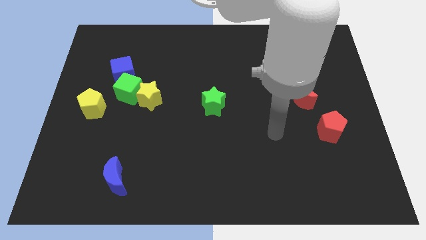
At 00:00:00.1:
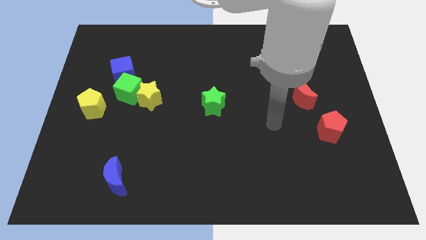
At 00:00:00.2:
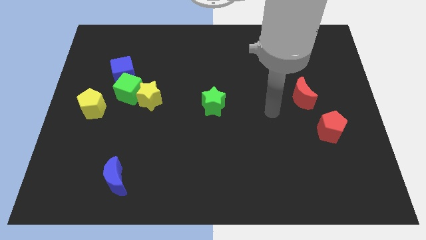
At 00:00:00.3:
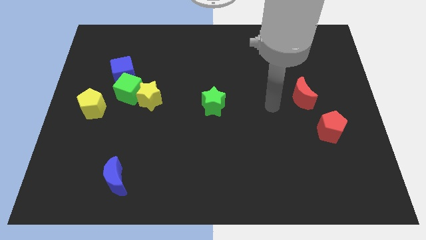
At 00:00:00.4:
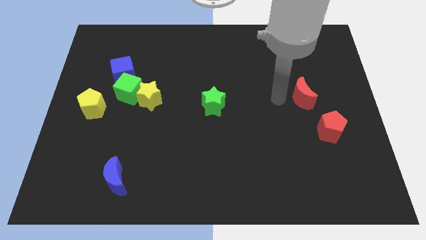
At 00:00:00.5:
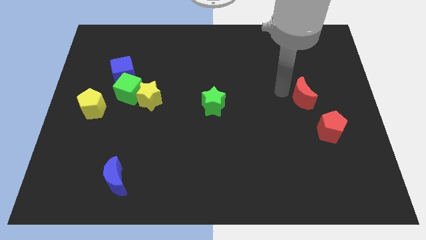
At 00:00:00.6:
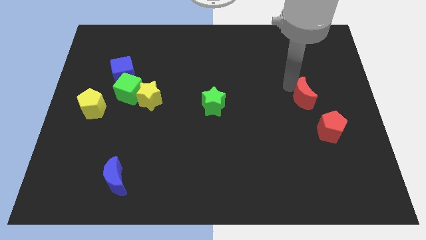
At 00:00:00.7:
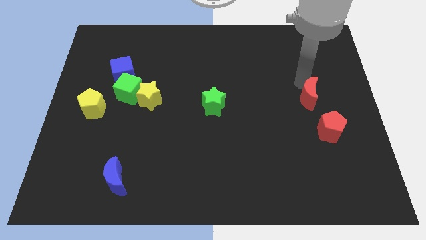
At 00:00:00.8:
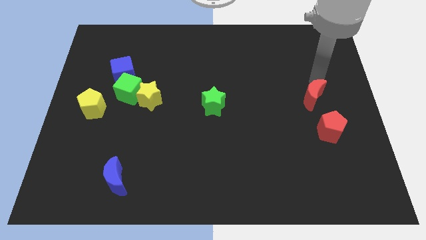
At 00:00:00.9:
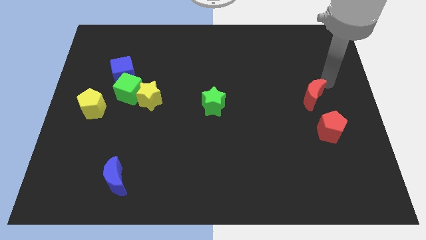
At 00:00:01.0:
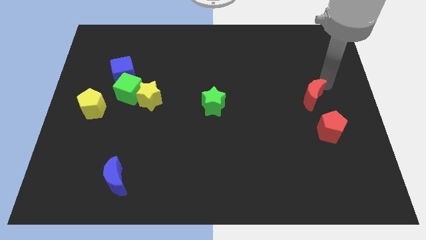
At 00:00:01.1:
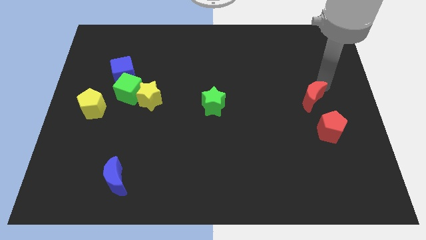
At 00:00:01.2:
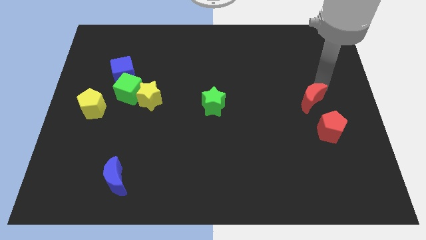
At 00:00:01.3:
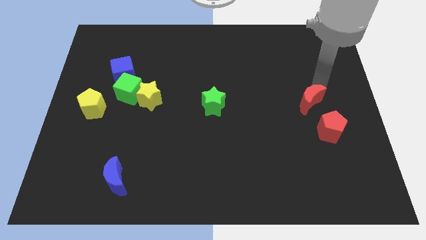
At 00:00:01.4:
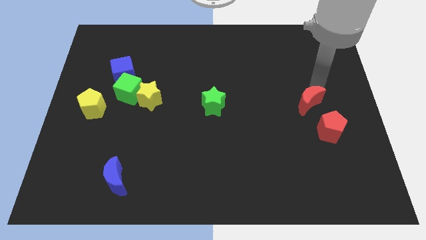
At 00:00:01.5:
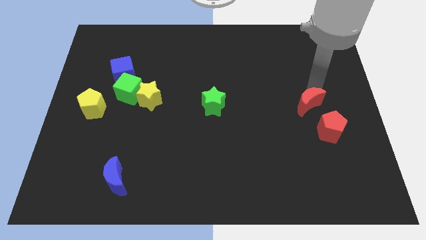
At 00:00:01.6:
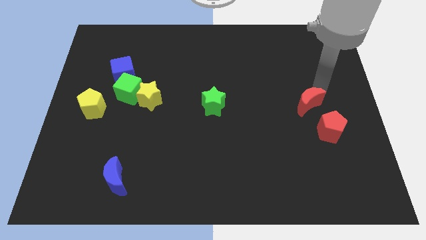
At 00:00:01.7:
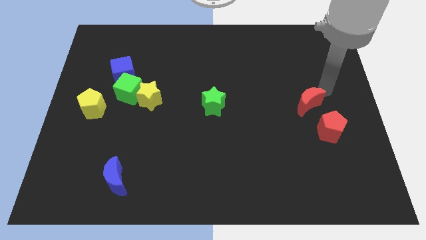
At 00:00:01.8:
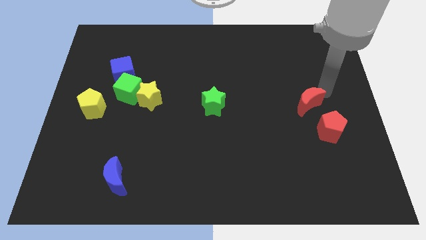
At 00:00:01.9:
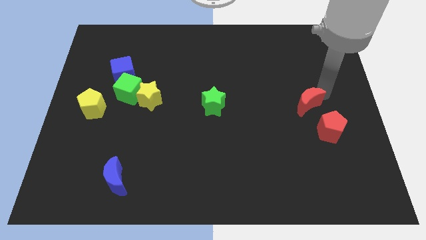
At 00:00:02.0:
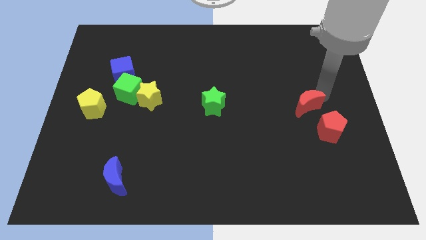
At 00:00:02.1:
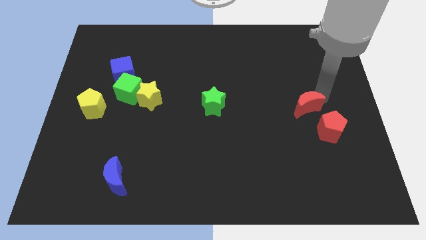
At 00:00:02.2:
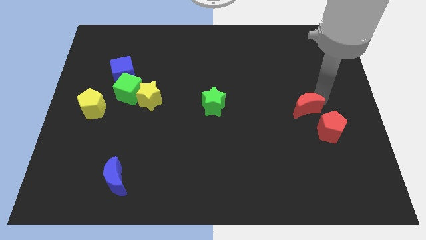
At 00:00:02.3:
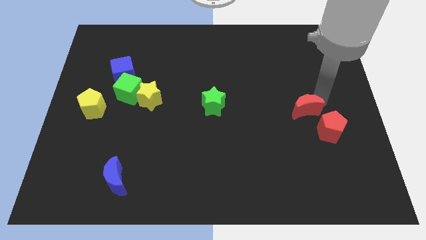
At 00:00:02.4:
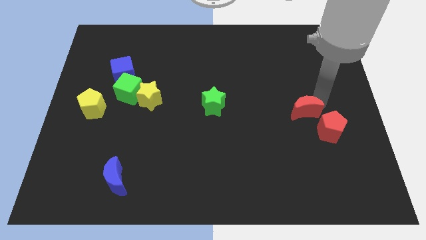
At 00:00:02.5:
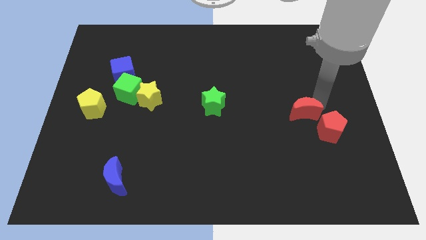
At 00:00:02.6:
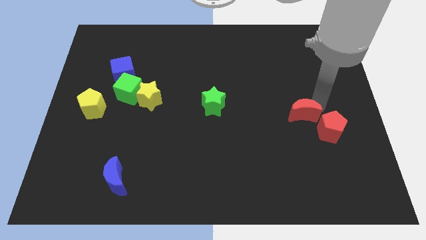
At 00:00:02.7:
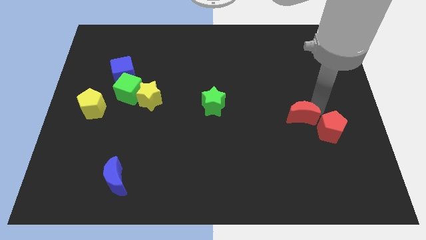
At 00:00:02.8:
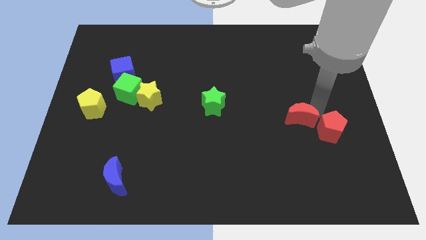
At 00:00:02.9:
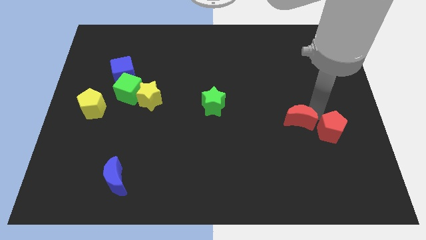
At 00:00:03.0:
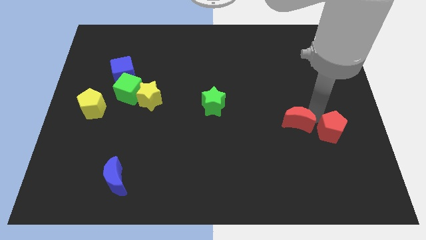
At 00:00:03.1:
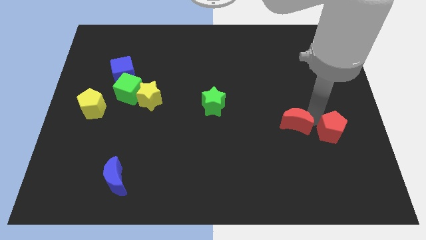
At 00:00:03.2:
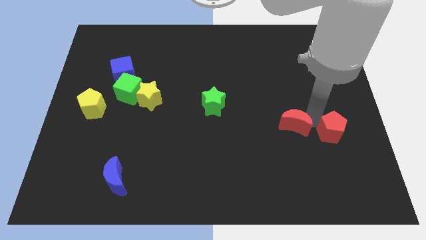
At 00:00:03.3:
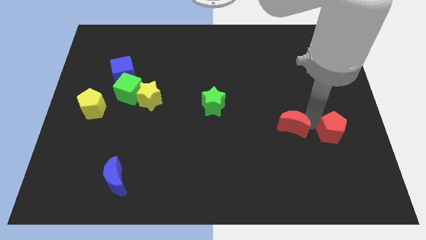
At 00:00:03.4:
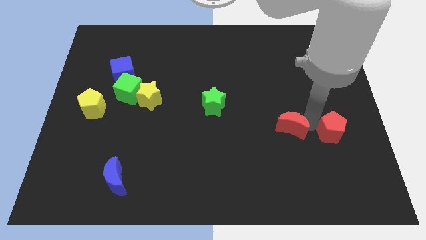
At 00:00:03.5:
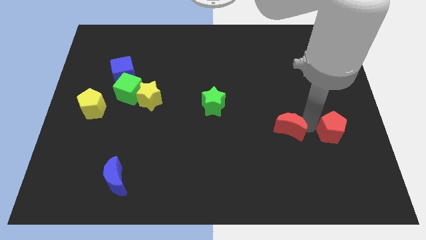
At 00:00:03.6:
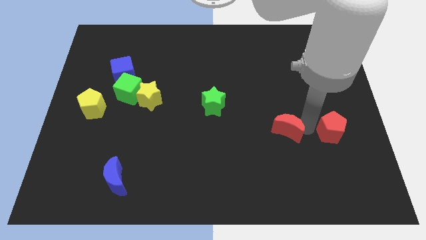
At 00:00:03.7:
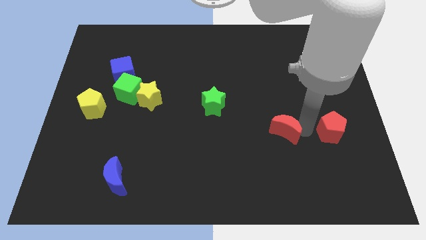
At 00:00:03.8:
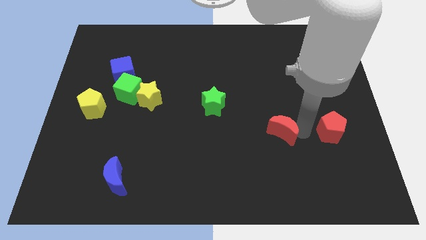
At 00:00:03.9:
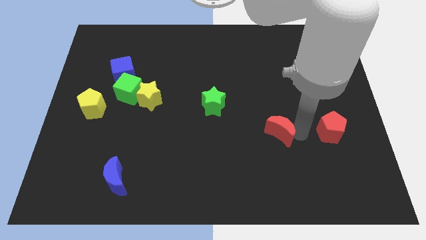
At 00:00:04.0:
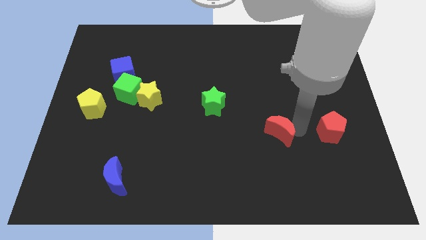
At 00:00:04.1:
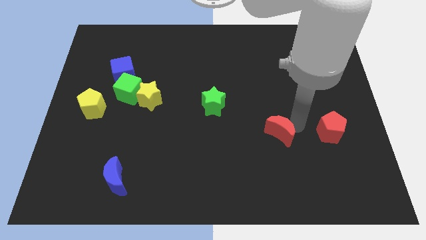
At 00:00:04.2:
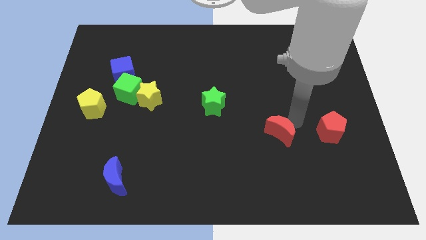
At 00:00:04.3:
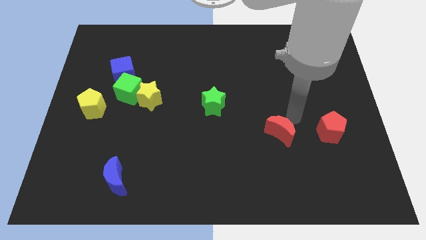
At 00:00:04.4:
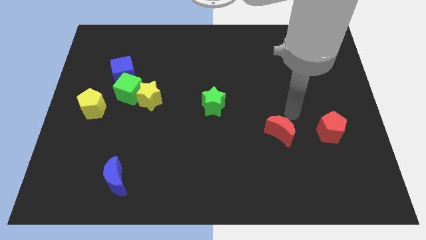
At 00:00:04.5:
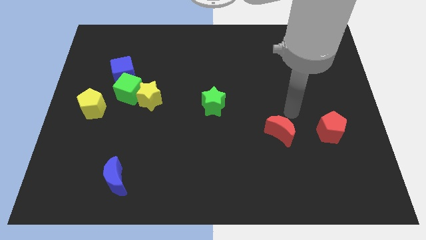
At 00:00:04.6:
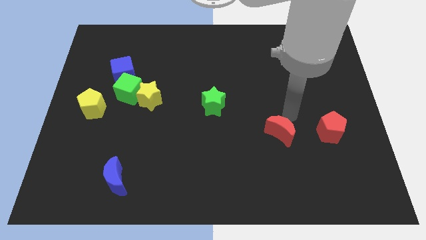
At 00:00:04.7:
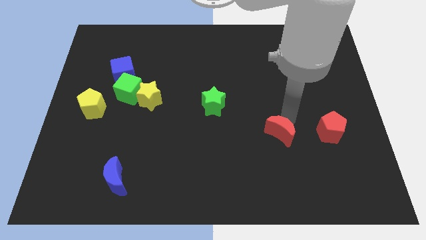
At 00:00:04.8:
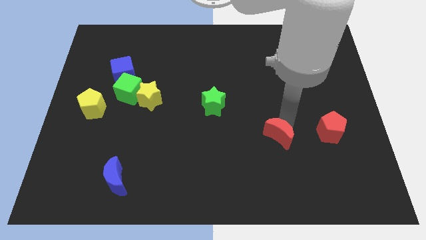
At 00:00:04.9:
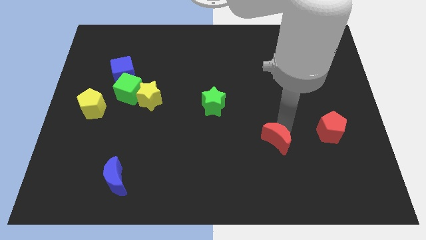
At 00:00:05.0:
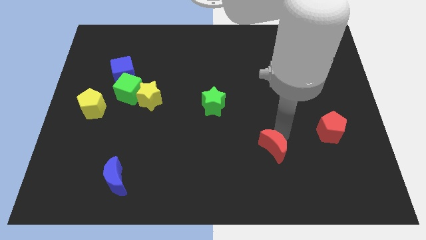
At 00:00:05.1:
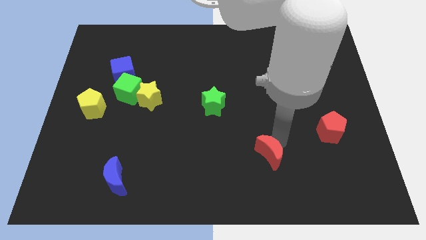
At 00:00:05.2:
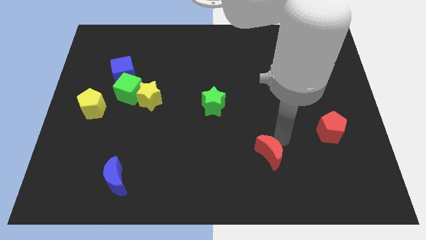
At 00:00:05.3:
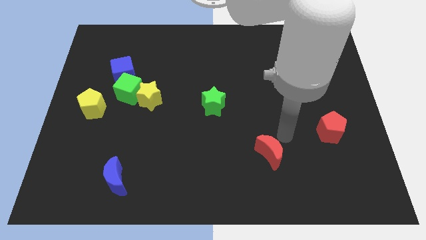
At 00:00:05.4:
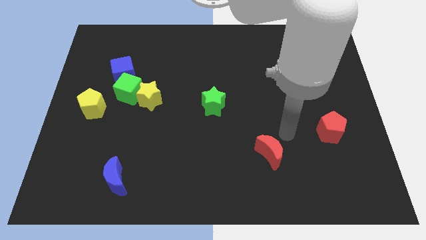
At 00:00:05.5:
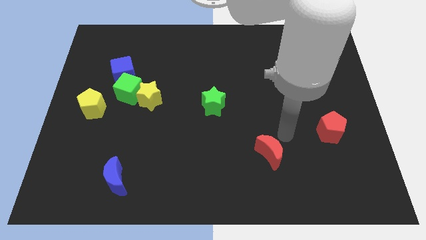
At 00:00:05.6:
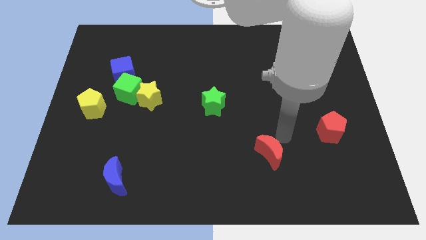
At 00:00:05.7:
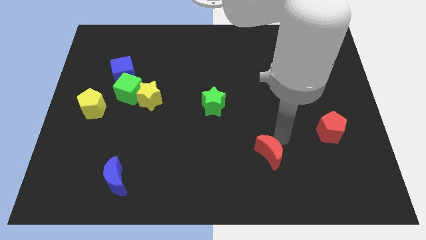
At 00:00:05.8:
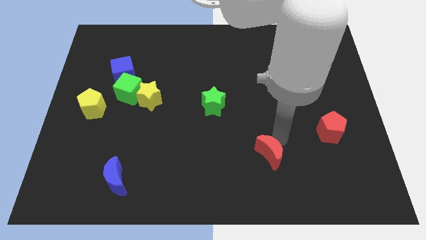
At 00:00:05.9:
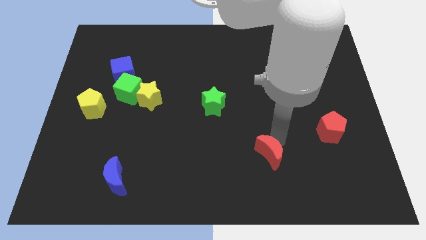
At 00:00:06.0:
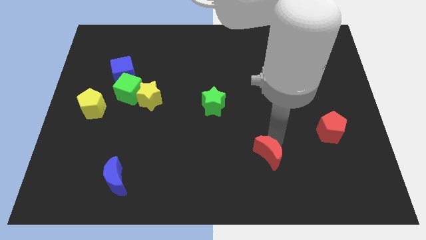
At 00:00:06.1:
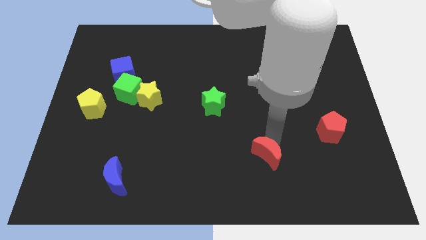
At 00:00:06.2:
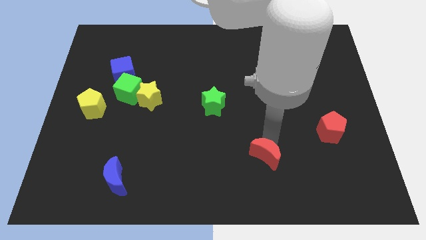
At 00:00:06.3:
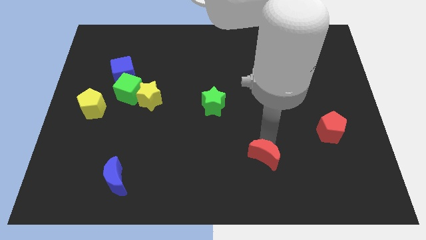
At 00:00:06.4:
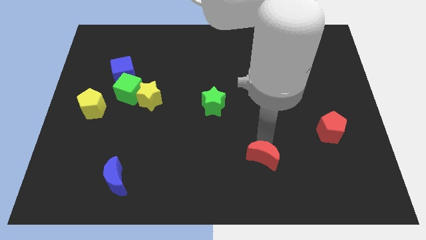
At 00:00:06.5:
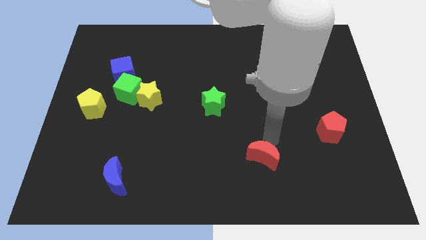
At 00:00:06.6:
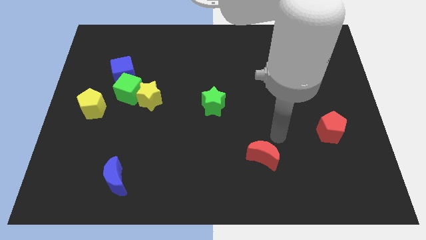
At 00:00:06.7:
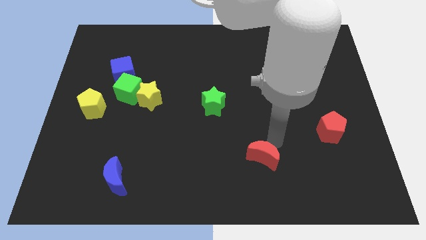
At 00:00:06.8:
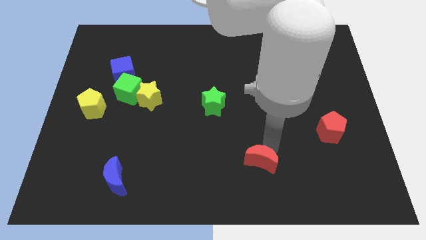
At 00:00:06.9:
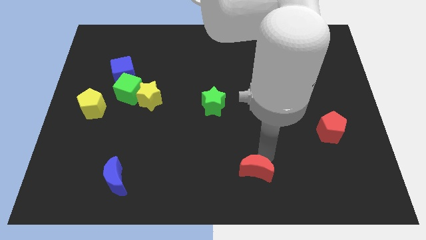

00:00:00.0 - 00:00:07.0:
put the red moon to the bottom
